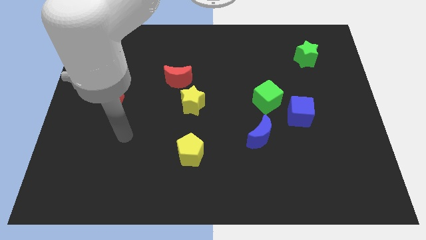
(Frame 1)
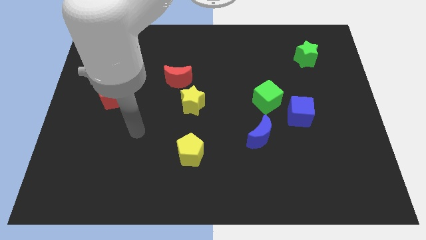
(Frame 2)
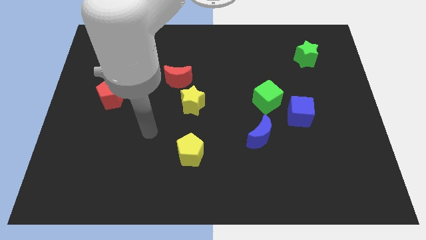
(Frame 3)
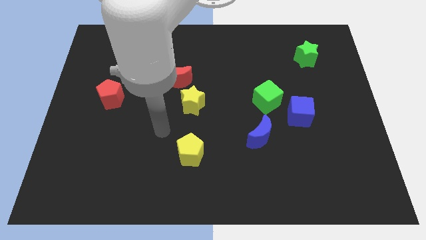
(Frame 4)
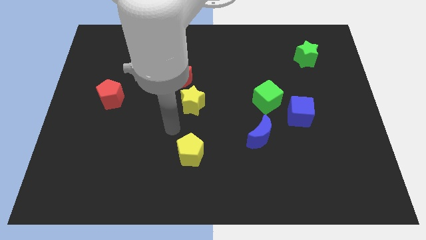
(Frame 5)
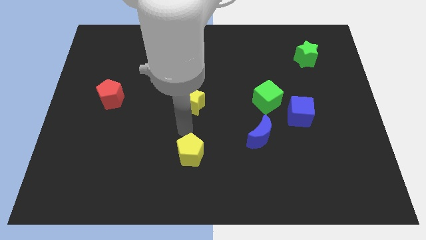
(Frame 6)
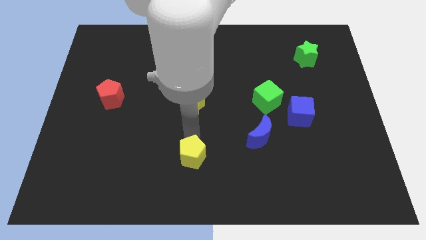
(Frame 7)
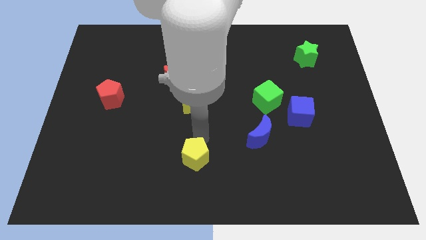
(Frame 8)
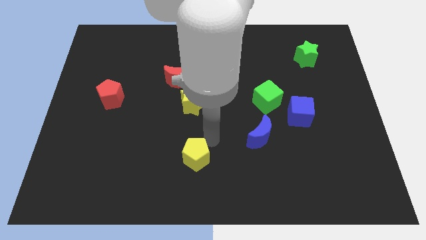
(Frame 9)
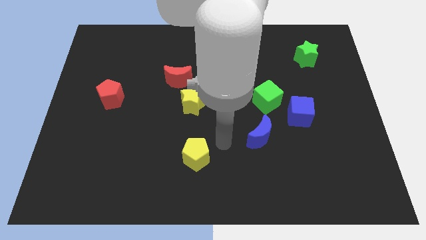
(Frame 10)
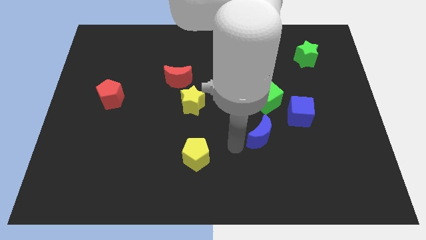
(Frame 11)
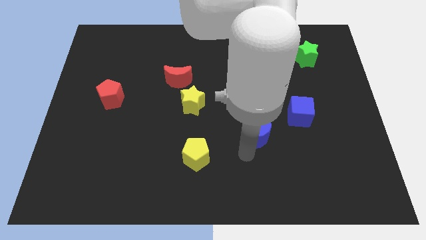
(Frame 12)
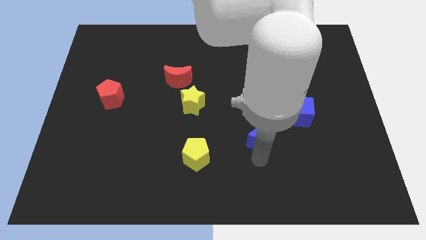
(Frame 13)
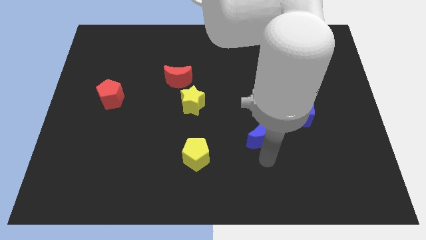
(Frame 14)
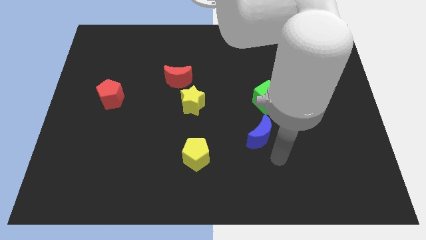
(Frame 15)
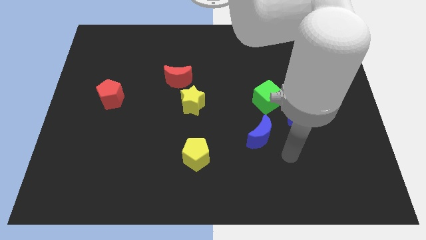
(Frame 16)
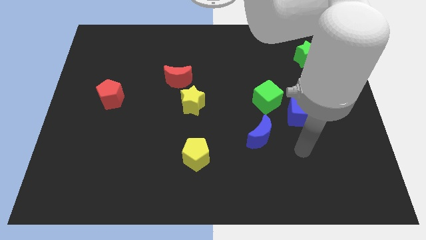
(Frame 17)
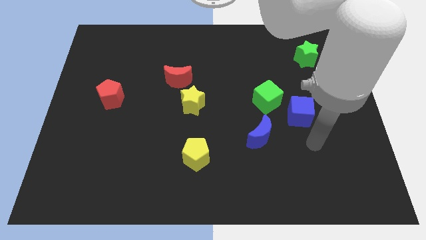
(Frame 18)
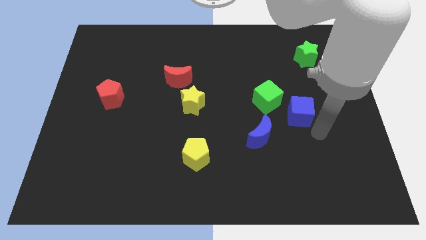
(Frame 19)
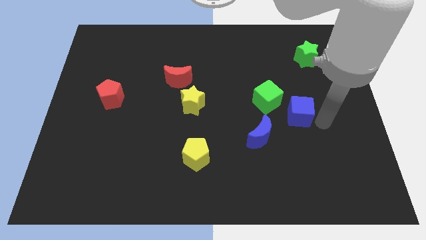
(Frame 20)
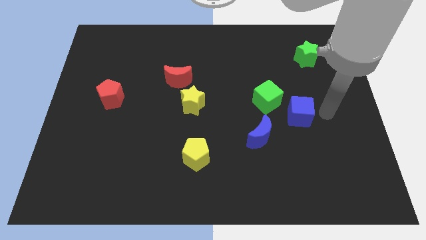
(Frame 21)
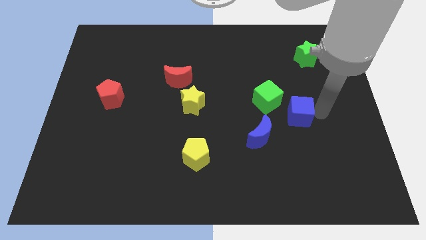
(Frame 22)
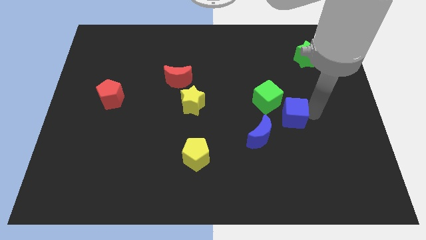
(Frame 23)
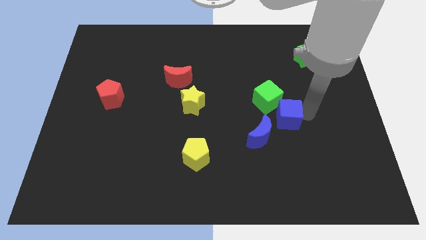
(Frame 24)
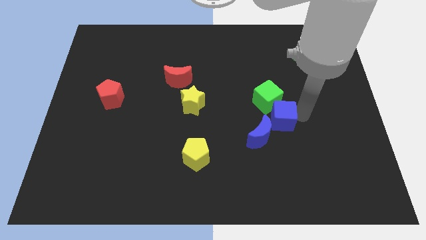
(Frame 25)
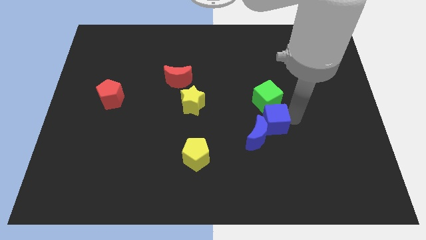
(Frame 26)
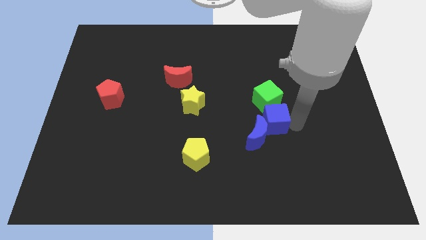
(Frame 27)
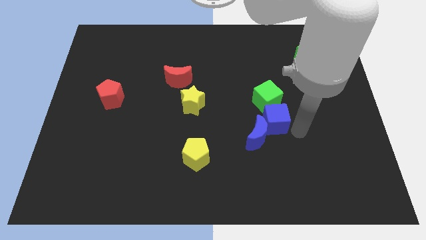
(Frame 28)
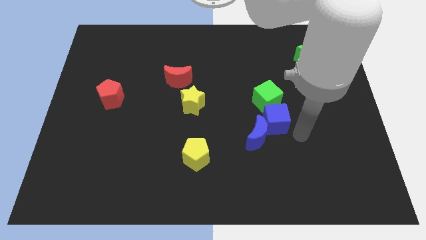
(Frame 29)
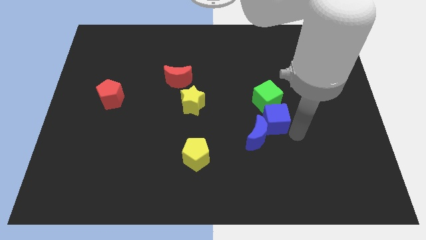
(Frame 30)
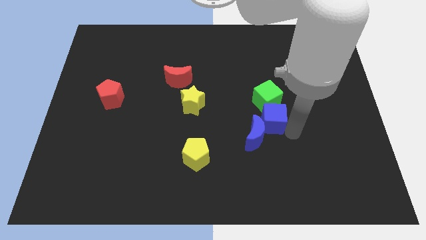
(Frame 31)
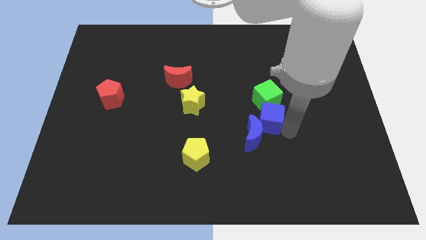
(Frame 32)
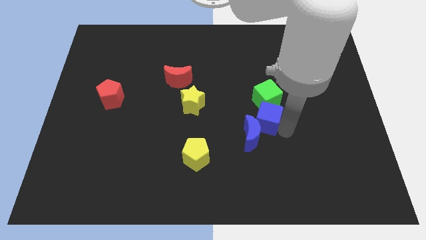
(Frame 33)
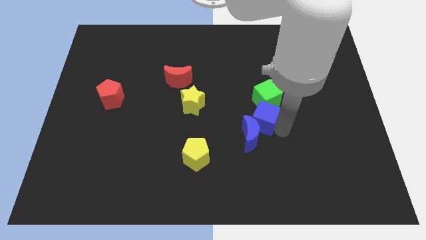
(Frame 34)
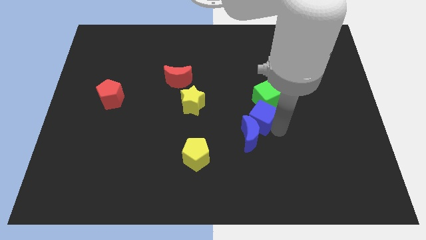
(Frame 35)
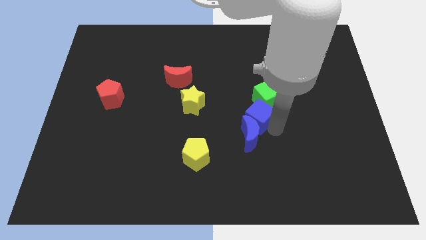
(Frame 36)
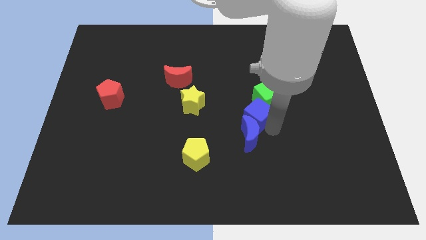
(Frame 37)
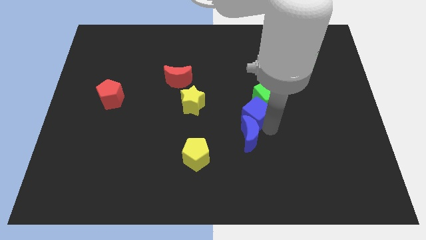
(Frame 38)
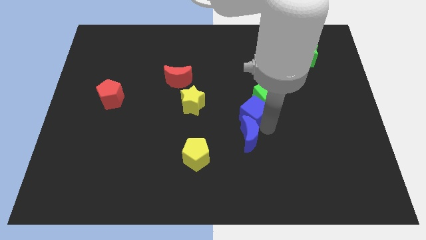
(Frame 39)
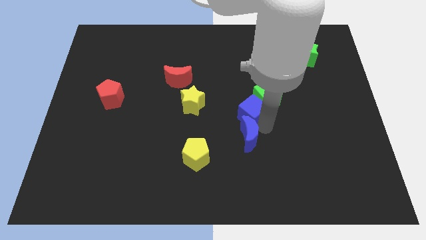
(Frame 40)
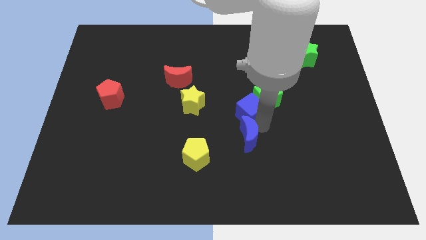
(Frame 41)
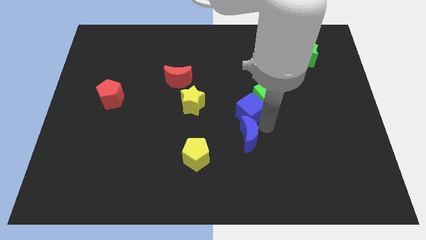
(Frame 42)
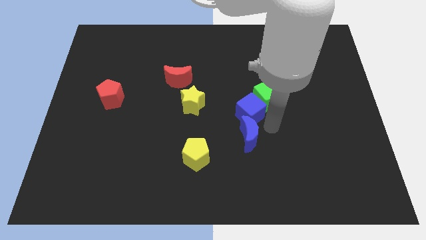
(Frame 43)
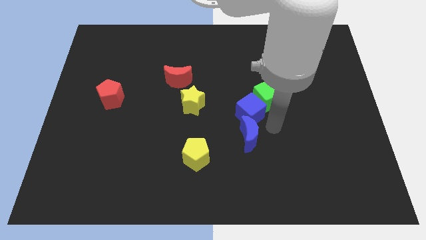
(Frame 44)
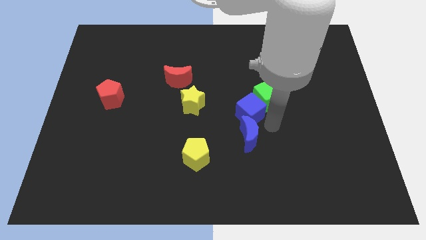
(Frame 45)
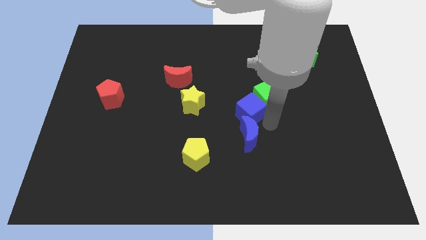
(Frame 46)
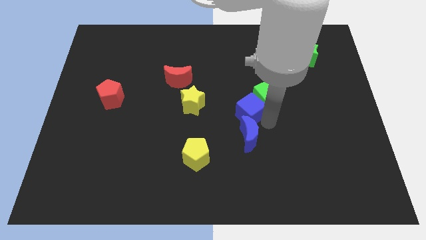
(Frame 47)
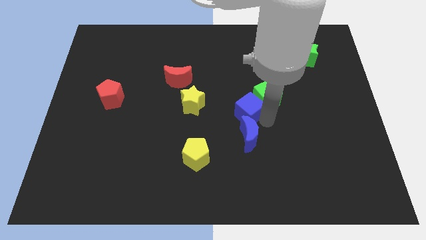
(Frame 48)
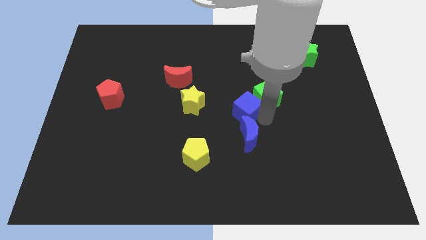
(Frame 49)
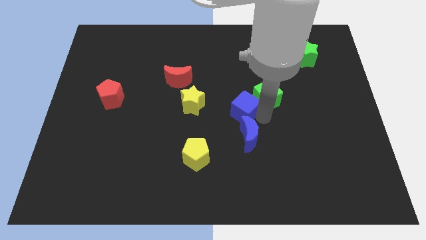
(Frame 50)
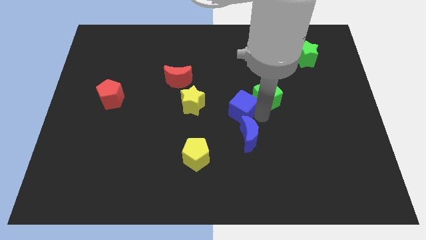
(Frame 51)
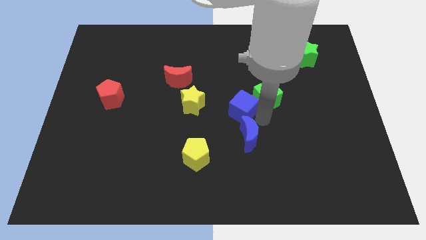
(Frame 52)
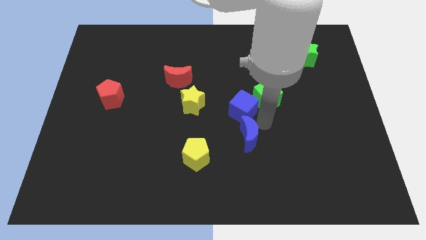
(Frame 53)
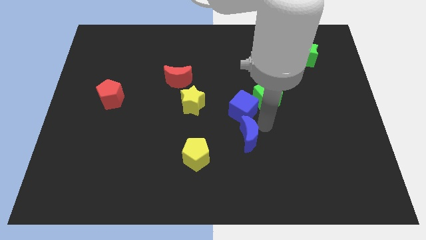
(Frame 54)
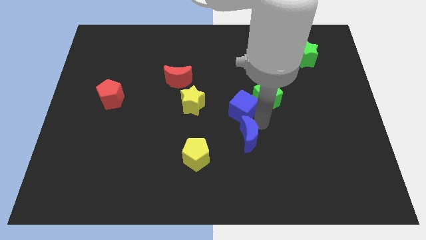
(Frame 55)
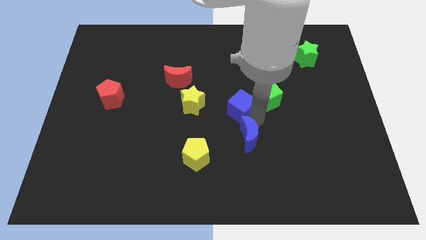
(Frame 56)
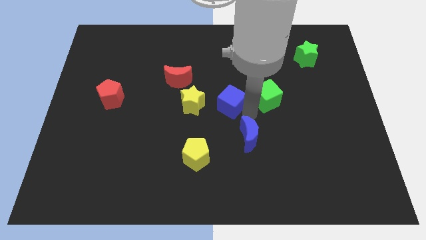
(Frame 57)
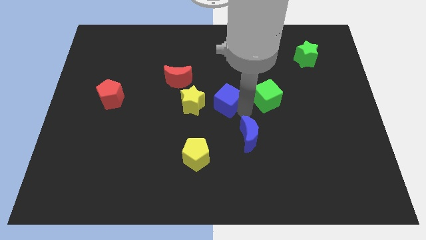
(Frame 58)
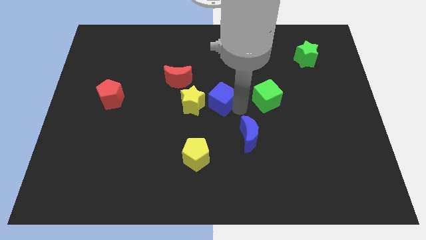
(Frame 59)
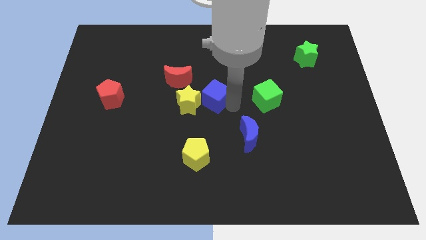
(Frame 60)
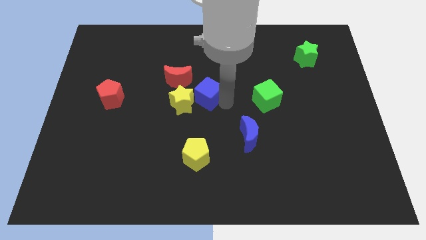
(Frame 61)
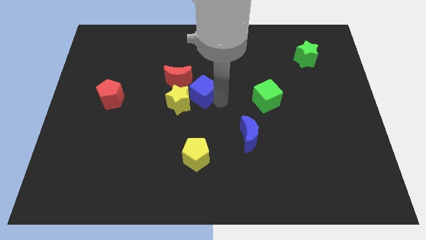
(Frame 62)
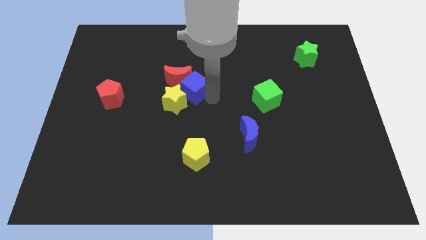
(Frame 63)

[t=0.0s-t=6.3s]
put the blue cube close to the red moon

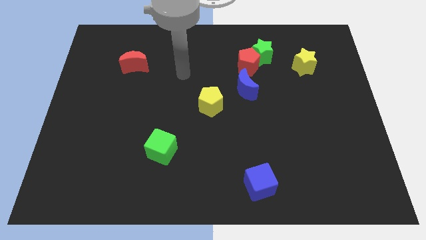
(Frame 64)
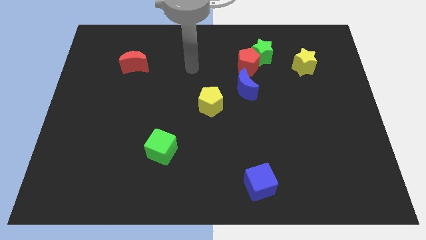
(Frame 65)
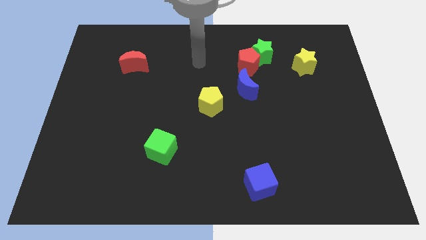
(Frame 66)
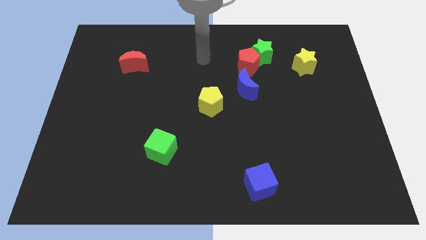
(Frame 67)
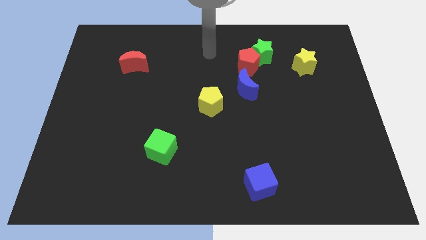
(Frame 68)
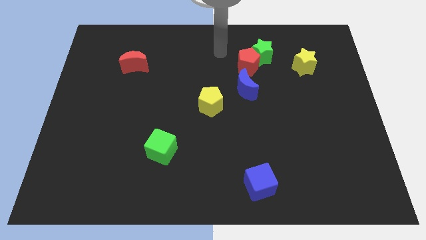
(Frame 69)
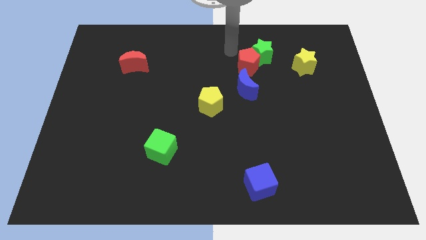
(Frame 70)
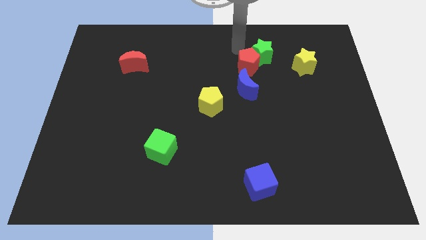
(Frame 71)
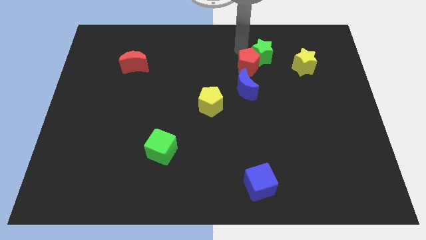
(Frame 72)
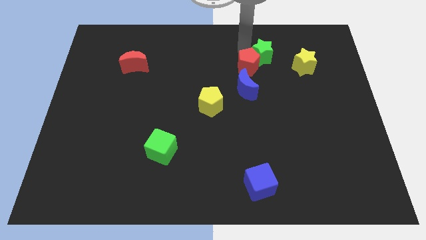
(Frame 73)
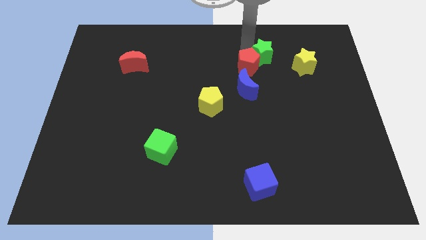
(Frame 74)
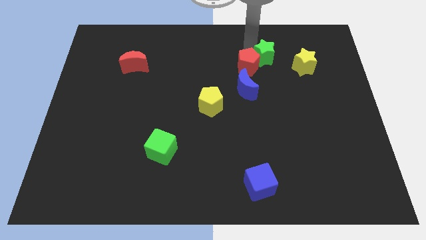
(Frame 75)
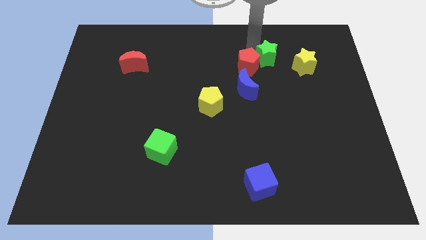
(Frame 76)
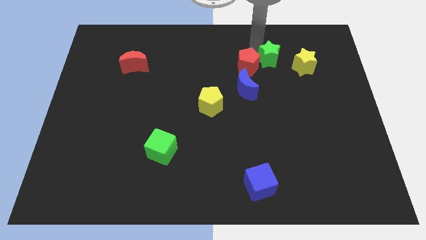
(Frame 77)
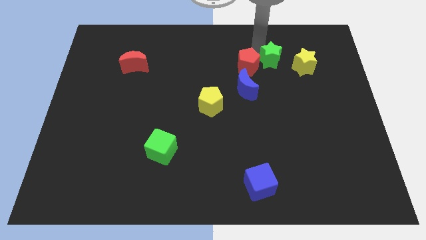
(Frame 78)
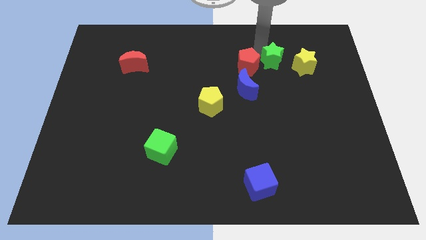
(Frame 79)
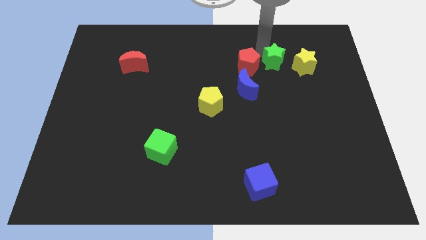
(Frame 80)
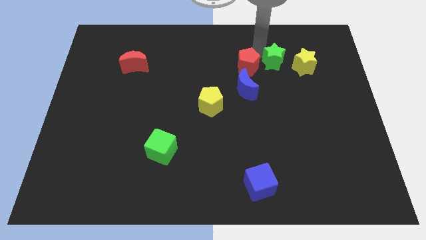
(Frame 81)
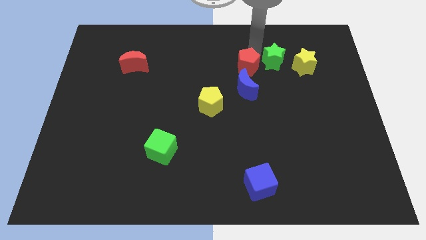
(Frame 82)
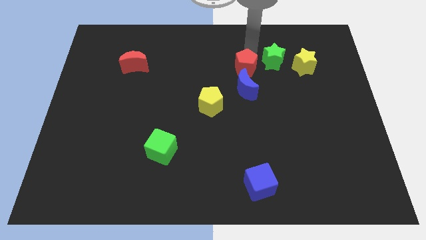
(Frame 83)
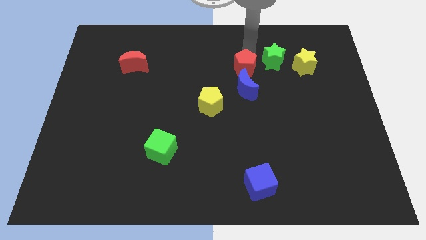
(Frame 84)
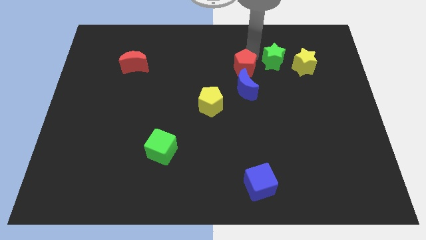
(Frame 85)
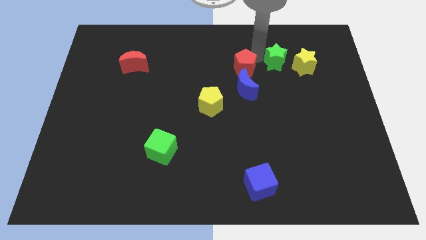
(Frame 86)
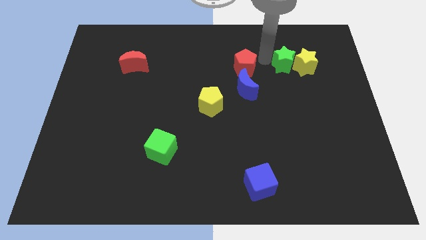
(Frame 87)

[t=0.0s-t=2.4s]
push the green star towards the yellow star
